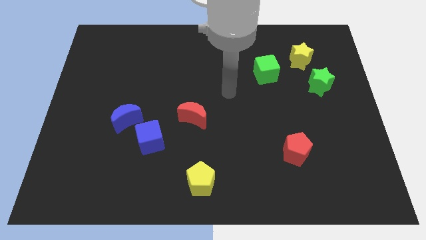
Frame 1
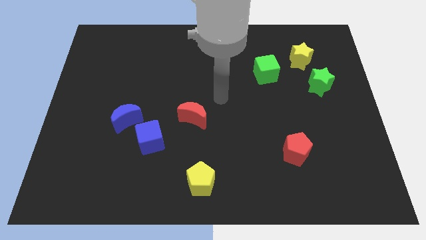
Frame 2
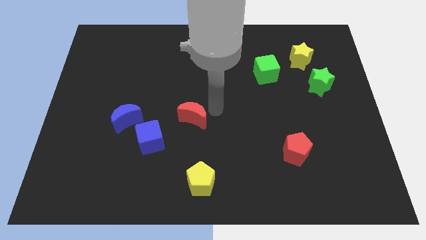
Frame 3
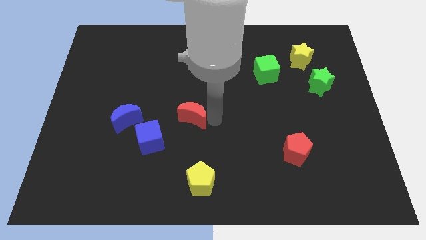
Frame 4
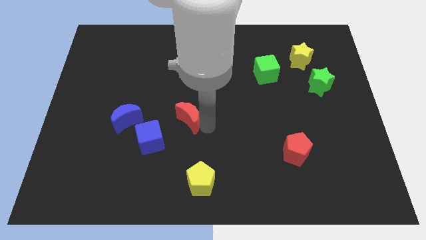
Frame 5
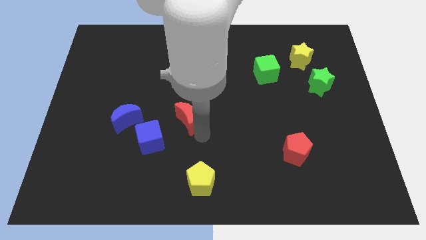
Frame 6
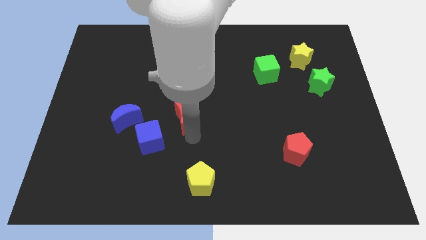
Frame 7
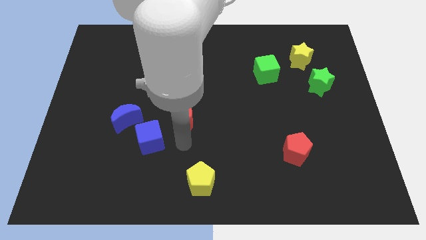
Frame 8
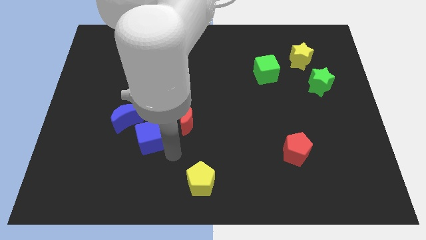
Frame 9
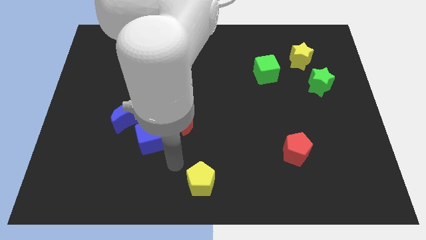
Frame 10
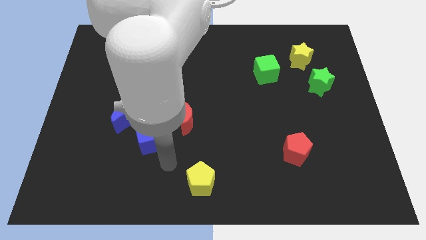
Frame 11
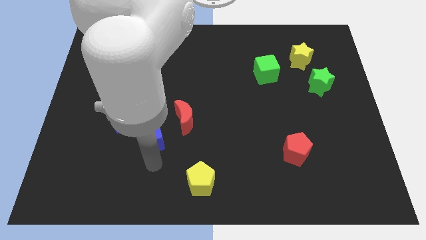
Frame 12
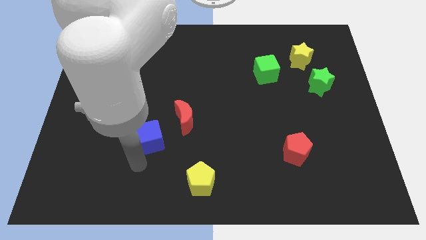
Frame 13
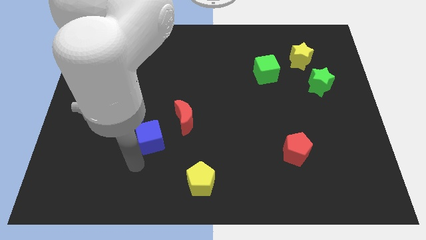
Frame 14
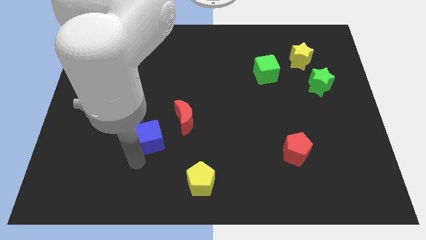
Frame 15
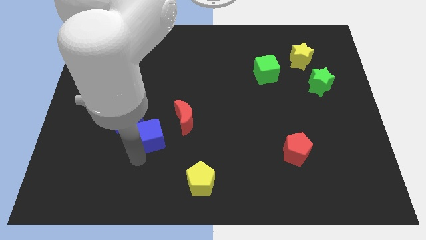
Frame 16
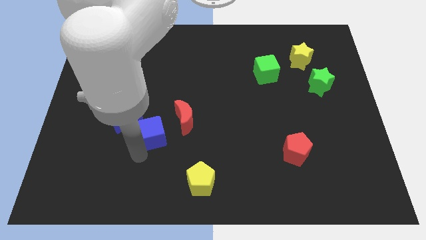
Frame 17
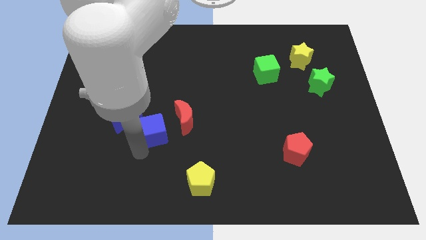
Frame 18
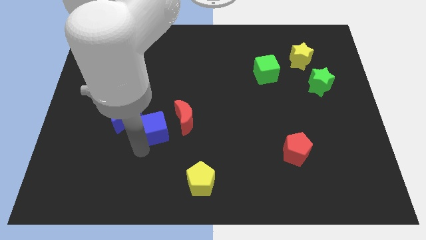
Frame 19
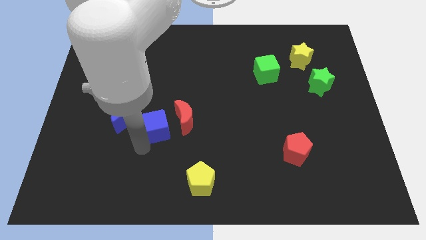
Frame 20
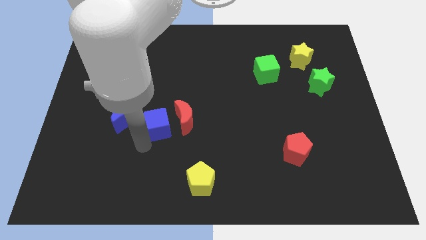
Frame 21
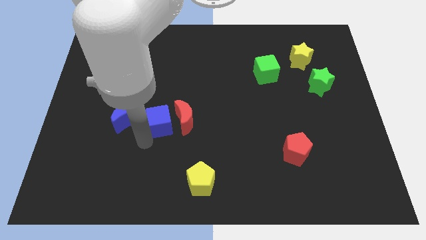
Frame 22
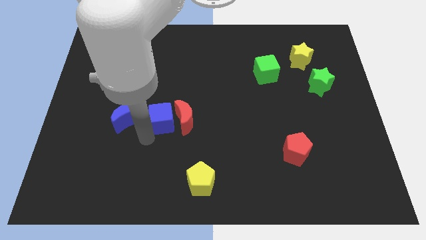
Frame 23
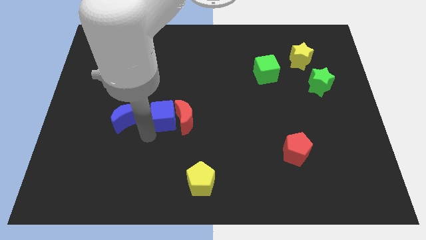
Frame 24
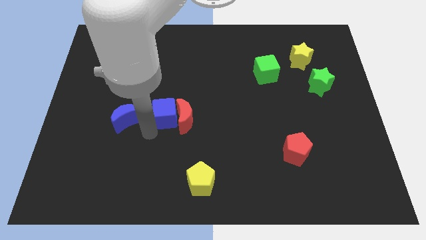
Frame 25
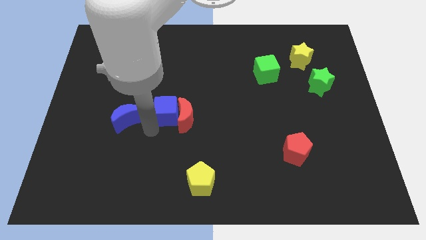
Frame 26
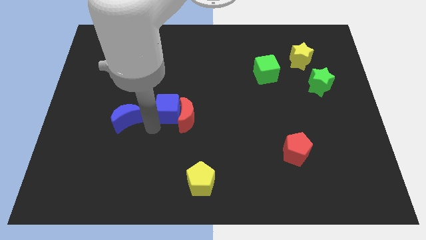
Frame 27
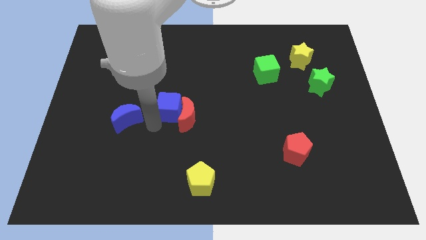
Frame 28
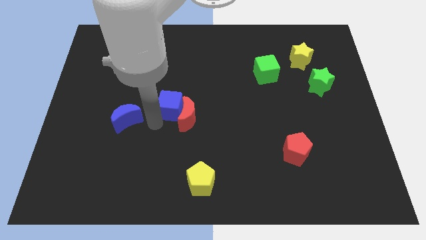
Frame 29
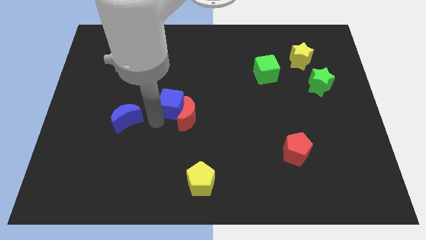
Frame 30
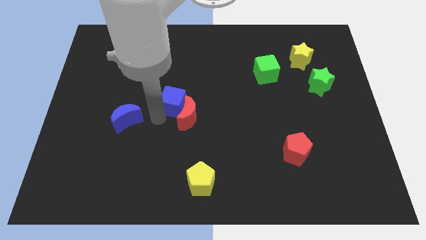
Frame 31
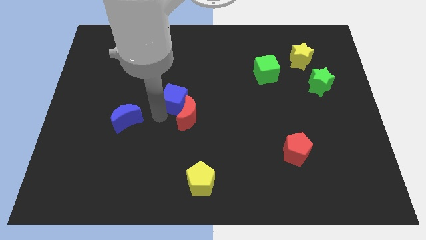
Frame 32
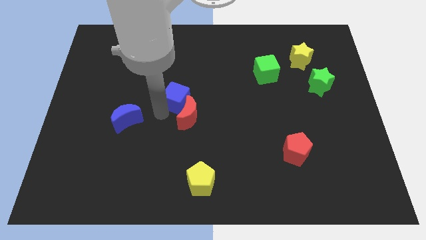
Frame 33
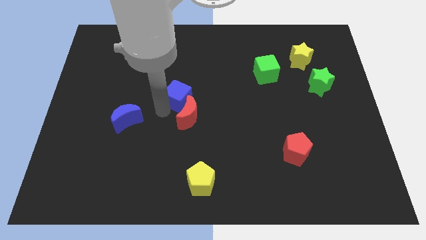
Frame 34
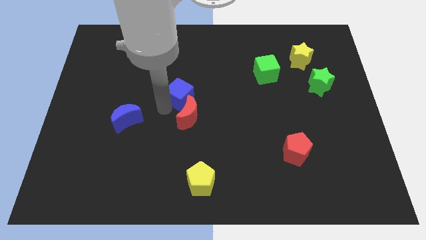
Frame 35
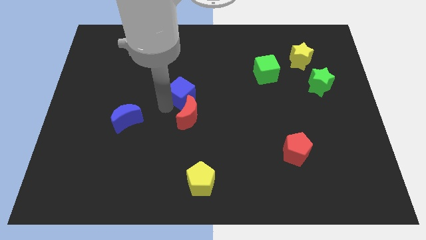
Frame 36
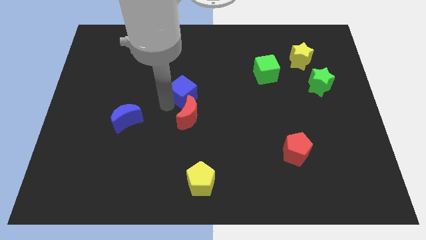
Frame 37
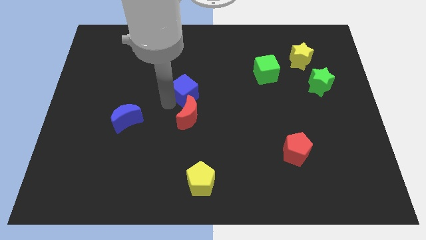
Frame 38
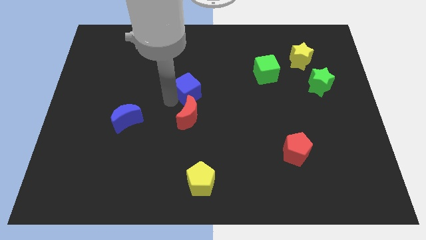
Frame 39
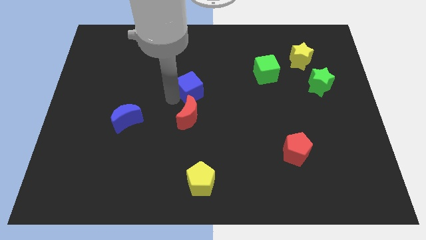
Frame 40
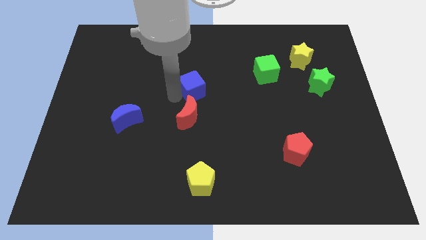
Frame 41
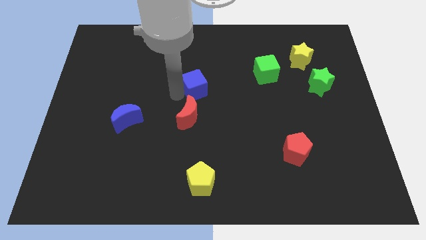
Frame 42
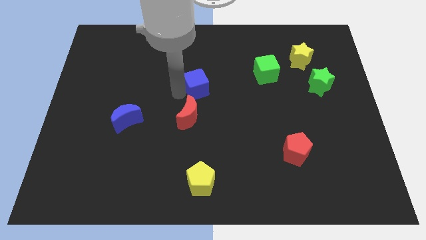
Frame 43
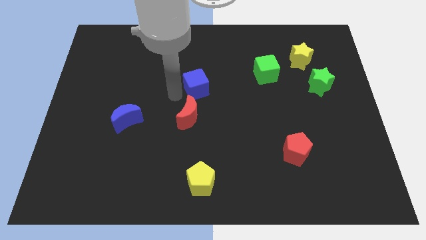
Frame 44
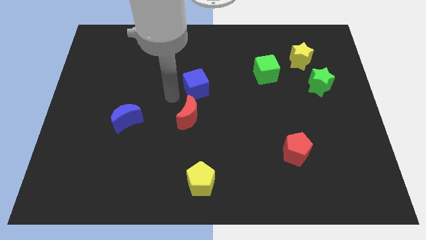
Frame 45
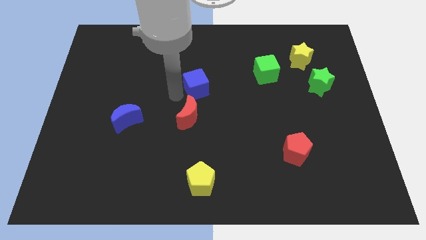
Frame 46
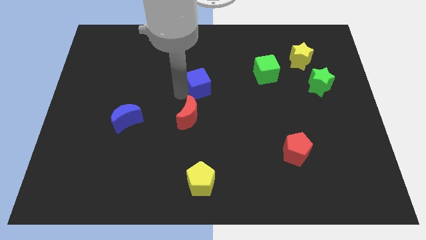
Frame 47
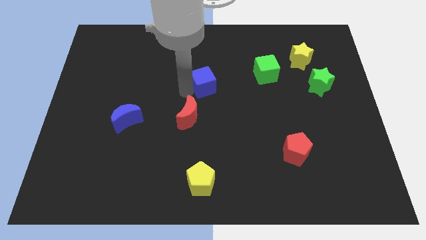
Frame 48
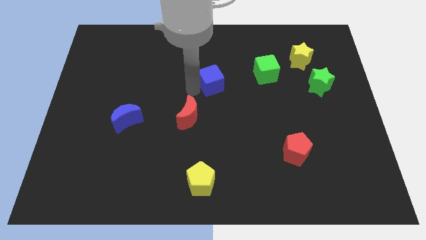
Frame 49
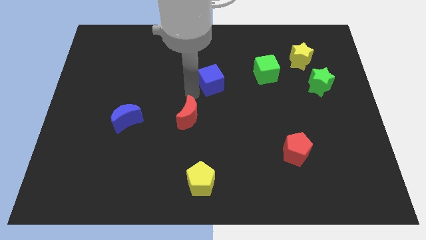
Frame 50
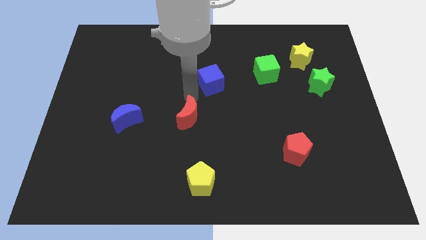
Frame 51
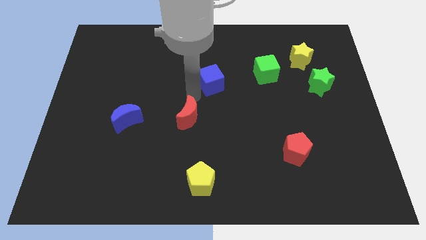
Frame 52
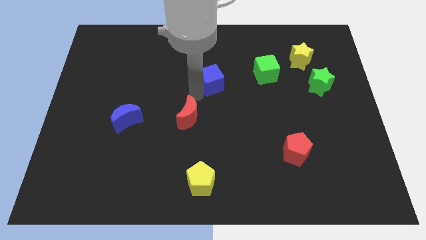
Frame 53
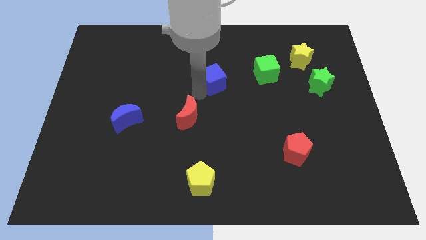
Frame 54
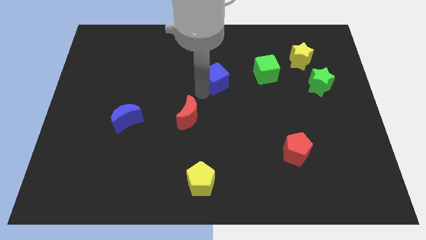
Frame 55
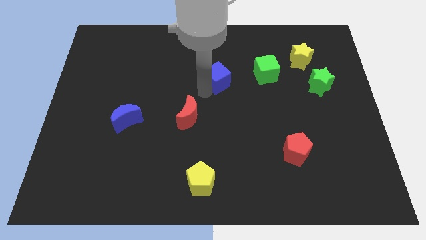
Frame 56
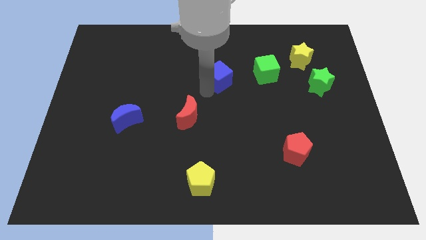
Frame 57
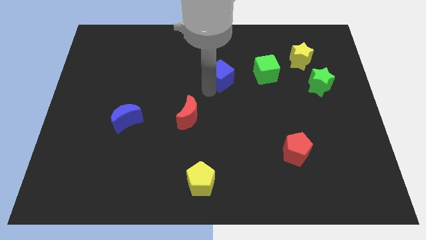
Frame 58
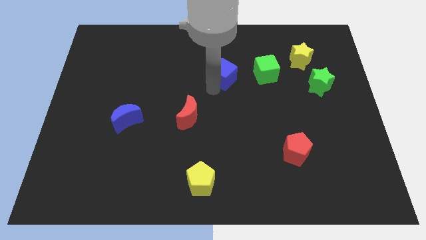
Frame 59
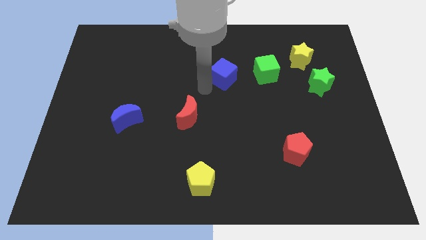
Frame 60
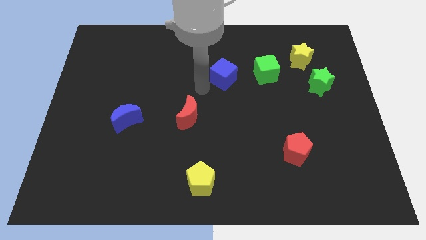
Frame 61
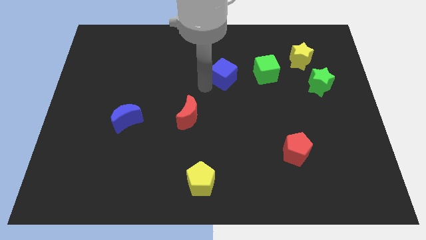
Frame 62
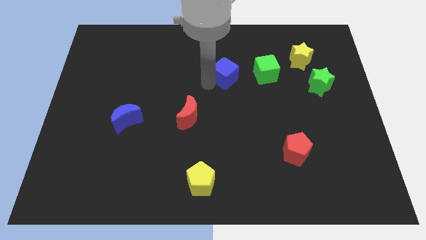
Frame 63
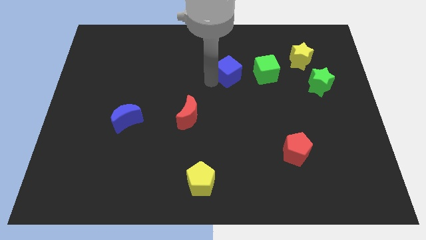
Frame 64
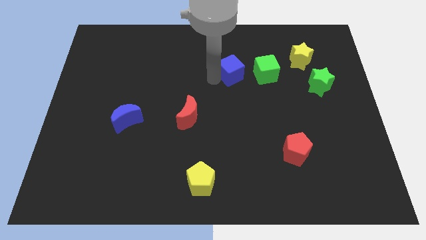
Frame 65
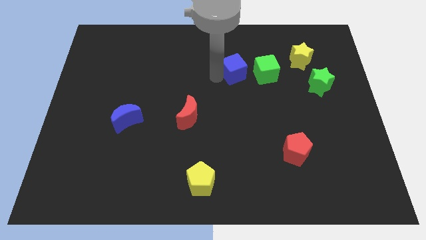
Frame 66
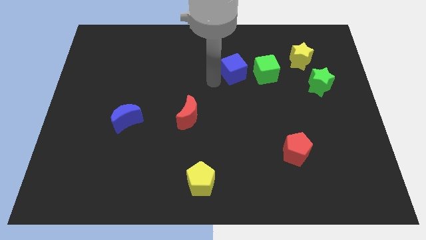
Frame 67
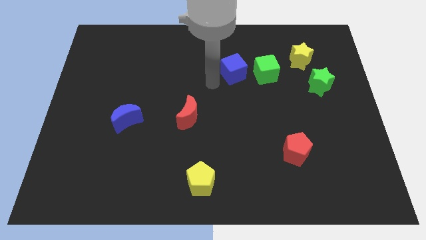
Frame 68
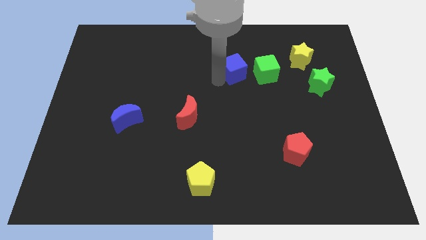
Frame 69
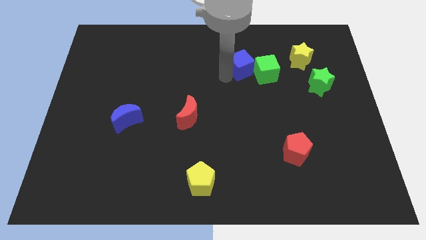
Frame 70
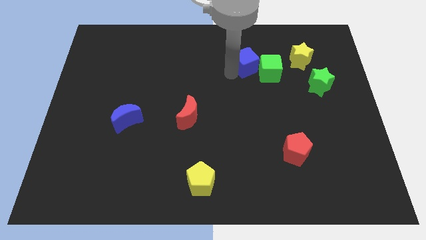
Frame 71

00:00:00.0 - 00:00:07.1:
slide the blue cube left of the yellow star

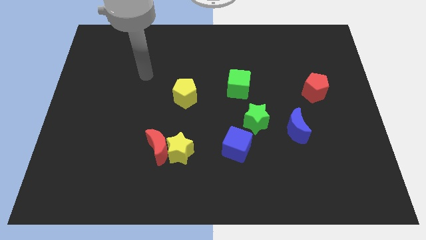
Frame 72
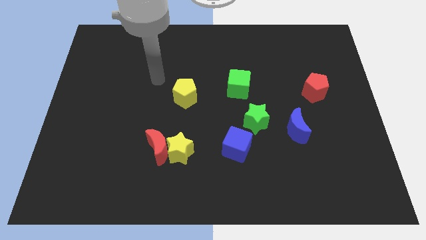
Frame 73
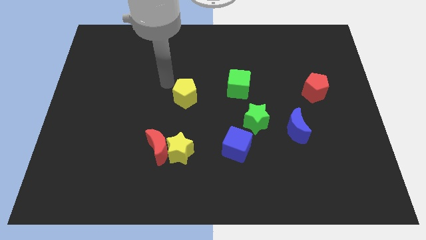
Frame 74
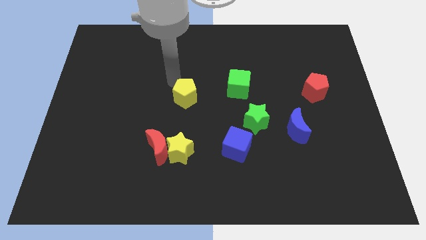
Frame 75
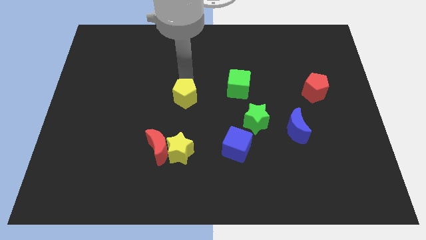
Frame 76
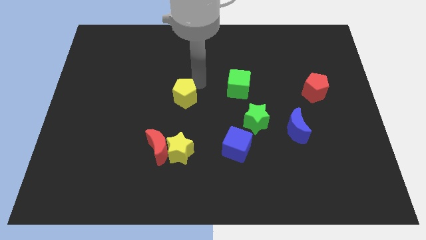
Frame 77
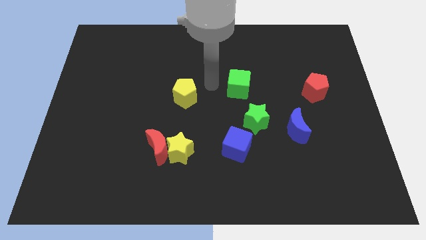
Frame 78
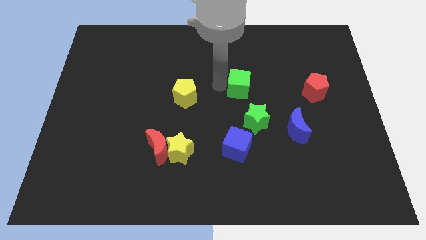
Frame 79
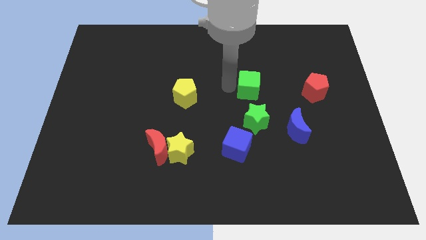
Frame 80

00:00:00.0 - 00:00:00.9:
move the green cube to the left side of the red pentagon
